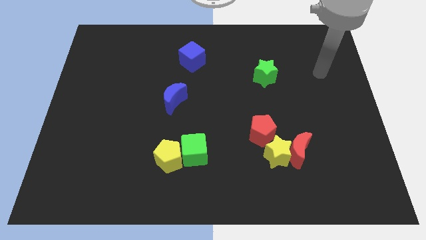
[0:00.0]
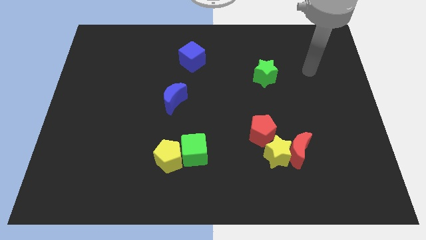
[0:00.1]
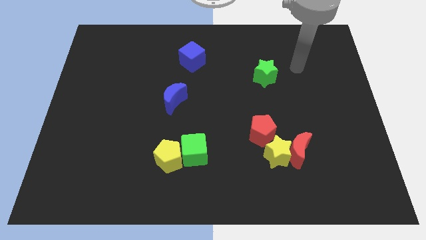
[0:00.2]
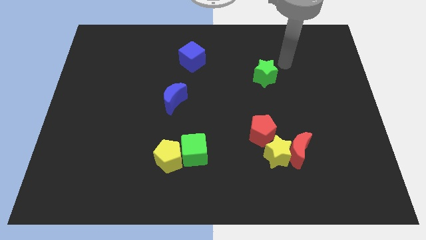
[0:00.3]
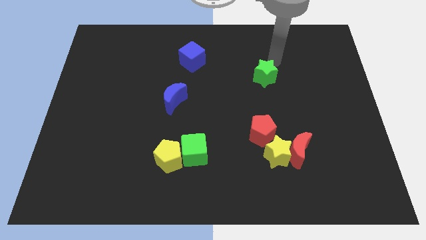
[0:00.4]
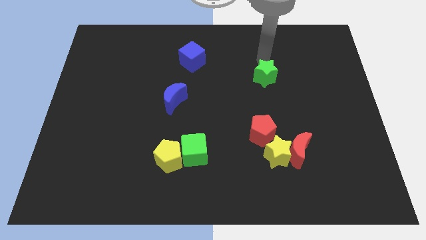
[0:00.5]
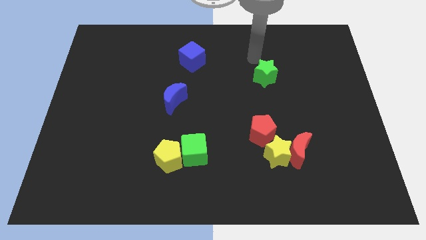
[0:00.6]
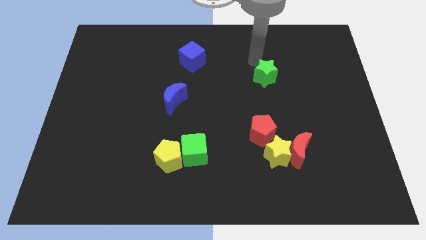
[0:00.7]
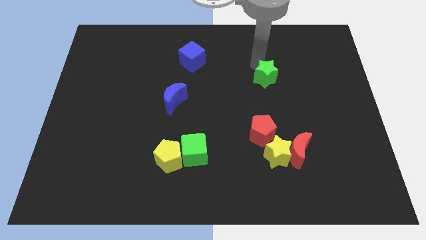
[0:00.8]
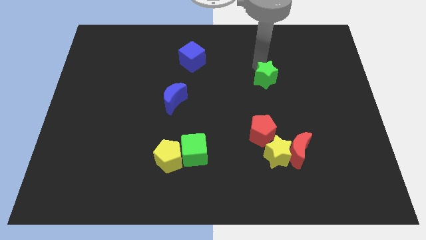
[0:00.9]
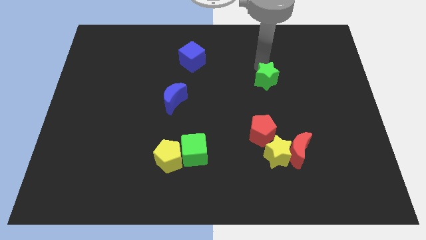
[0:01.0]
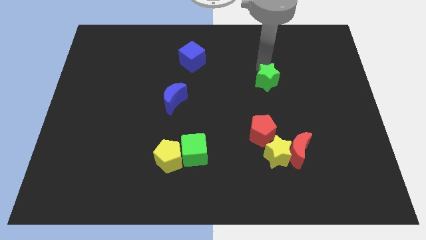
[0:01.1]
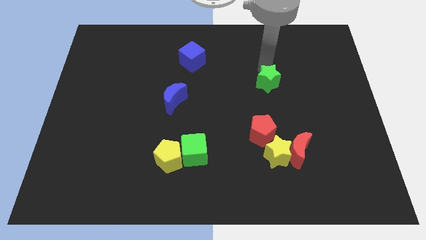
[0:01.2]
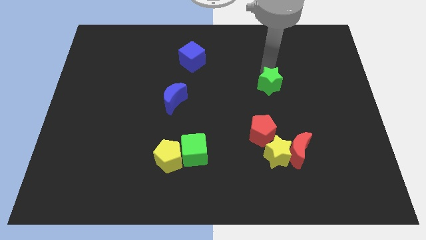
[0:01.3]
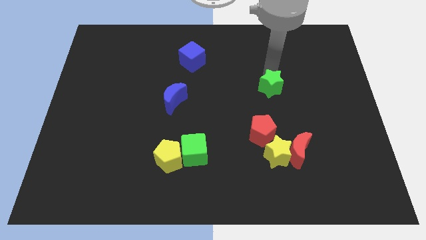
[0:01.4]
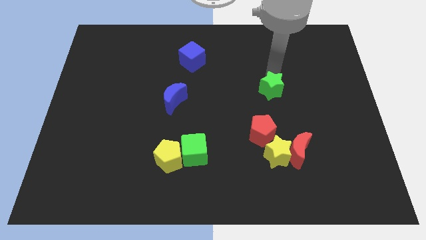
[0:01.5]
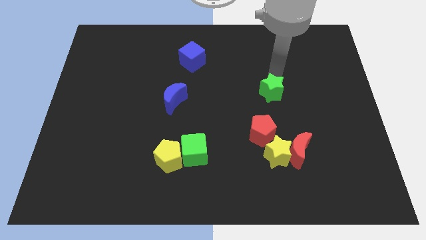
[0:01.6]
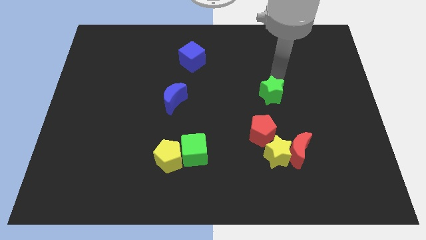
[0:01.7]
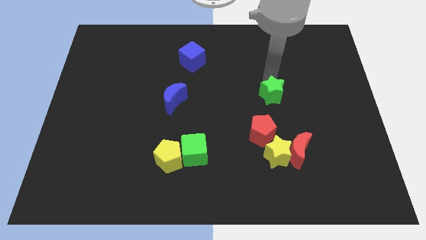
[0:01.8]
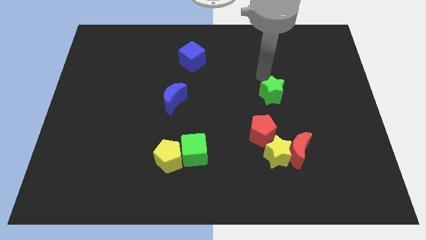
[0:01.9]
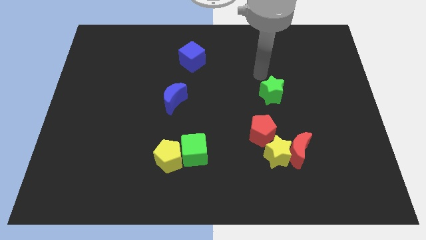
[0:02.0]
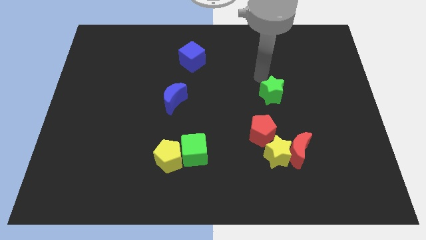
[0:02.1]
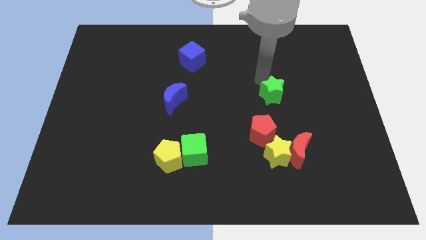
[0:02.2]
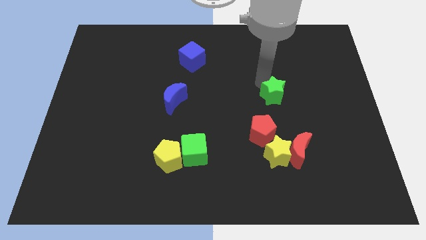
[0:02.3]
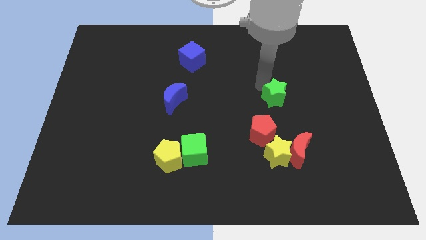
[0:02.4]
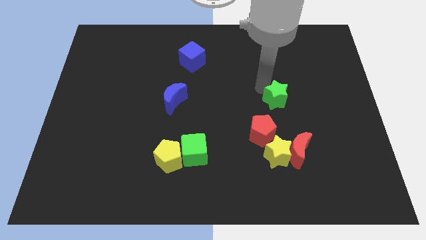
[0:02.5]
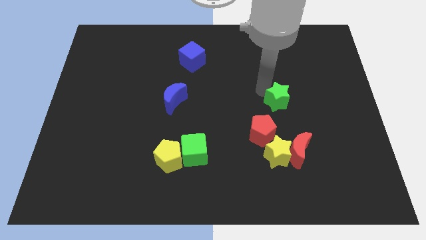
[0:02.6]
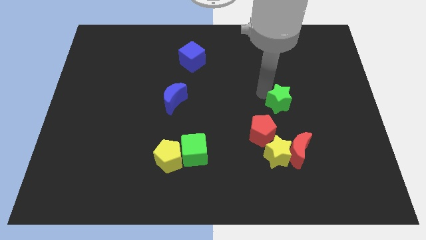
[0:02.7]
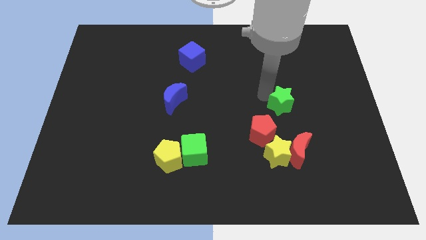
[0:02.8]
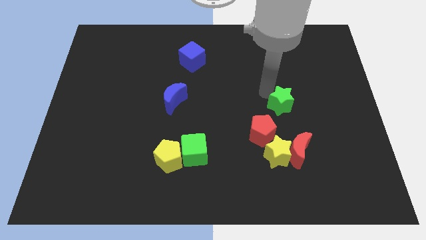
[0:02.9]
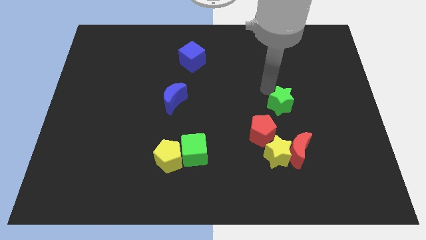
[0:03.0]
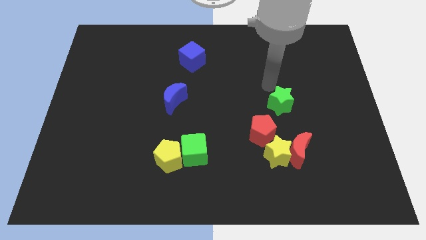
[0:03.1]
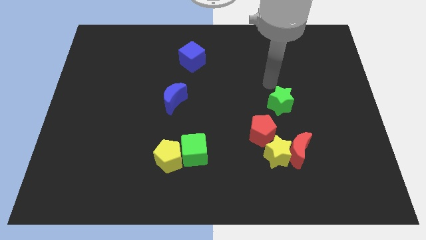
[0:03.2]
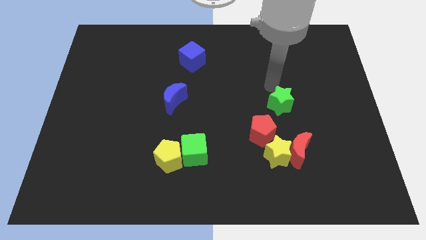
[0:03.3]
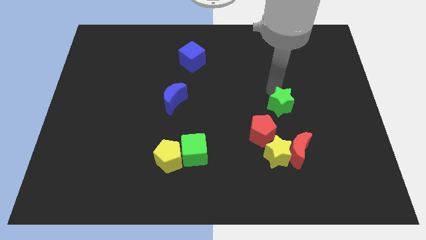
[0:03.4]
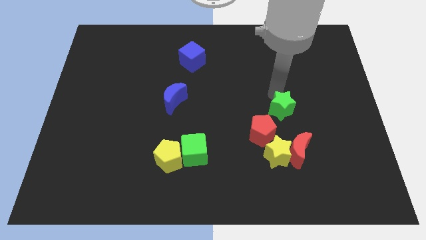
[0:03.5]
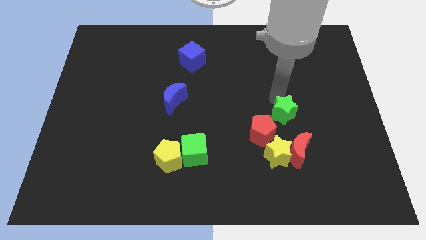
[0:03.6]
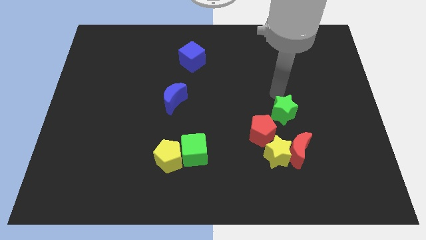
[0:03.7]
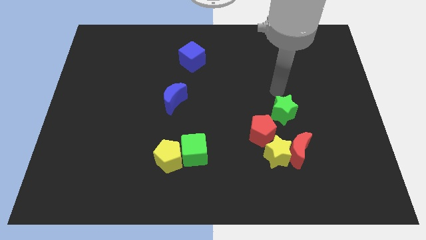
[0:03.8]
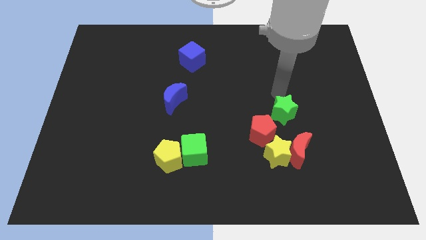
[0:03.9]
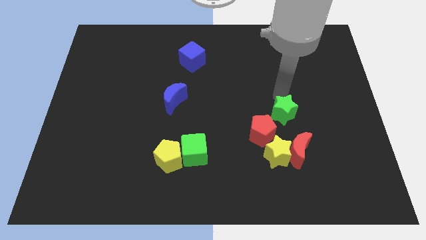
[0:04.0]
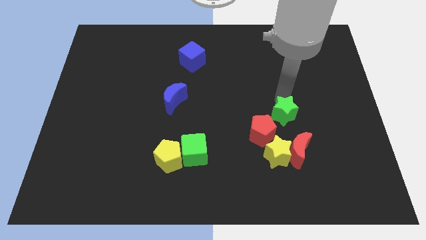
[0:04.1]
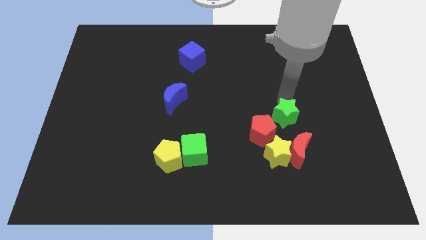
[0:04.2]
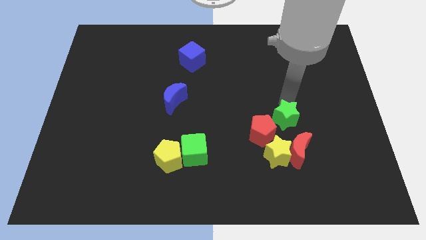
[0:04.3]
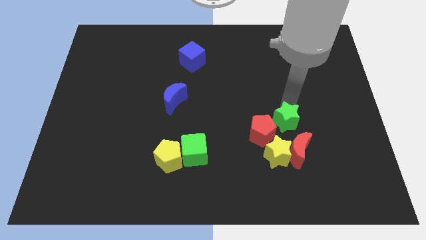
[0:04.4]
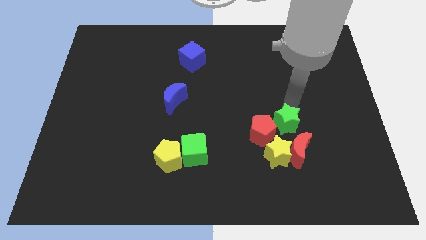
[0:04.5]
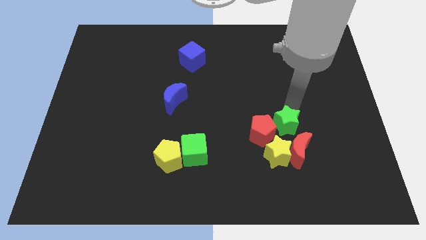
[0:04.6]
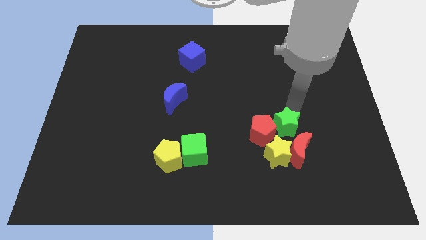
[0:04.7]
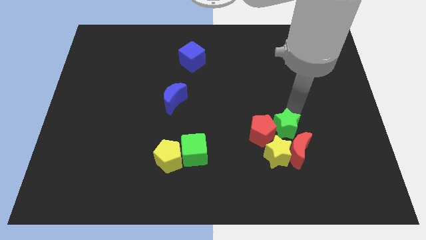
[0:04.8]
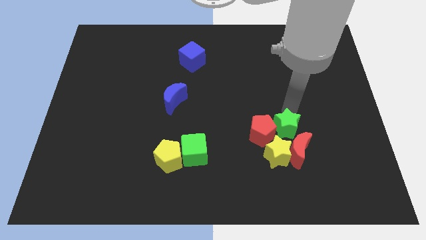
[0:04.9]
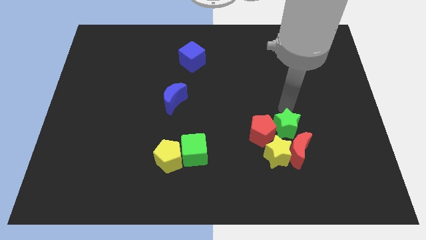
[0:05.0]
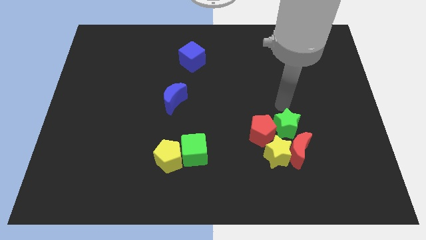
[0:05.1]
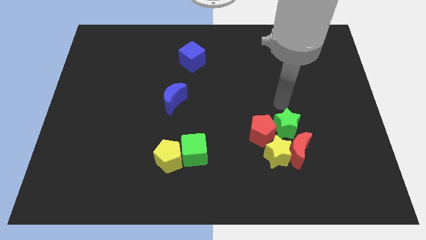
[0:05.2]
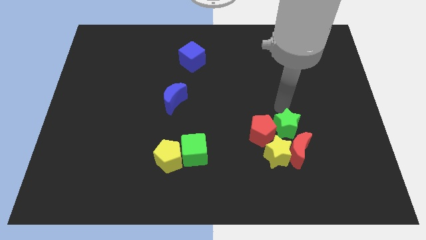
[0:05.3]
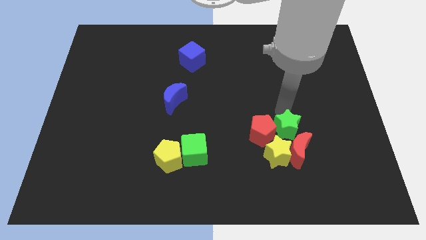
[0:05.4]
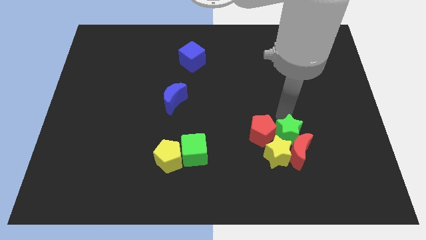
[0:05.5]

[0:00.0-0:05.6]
put the green star close to the red moon

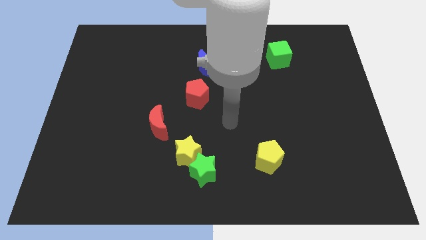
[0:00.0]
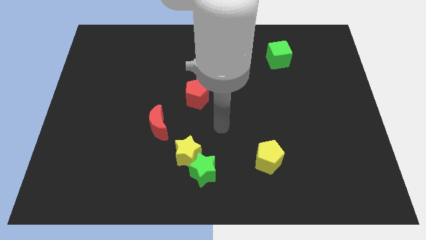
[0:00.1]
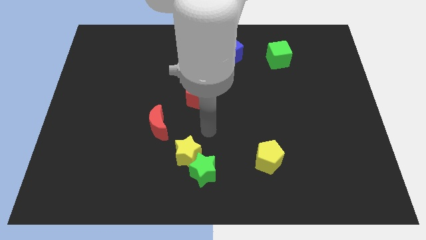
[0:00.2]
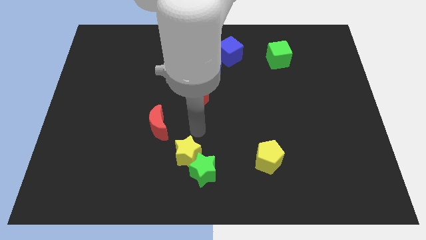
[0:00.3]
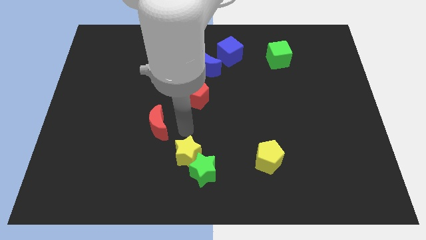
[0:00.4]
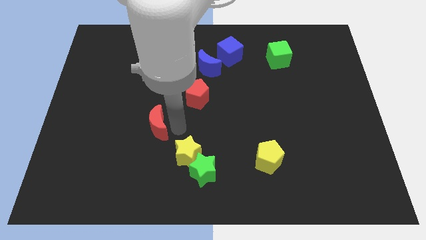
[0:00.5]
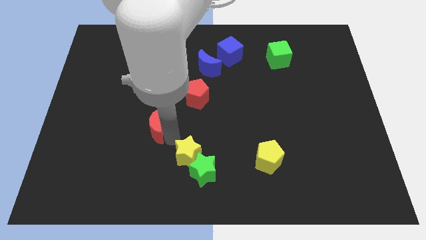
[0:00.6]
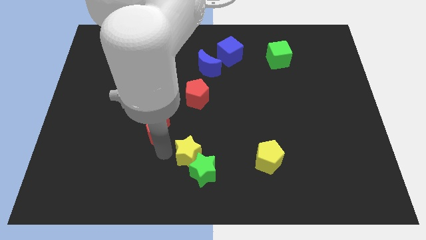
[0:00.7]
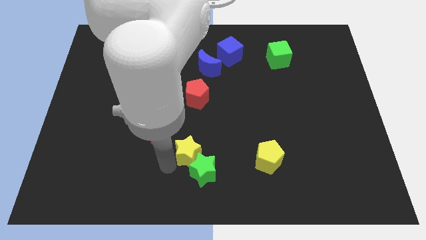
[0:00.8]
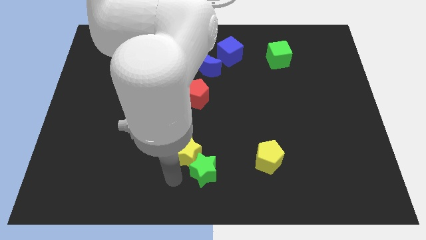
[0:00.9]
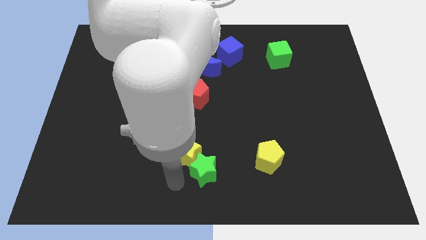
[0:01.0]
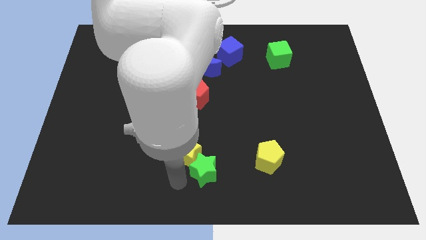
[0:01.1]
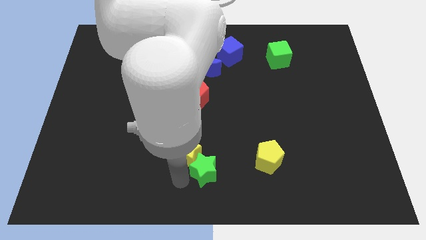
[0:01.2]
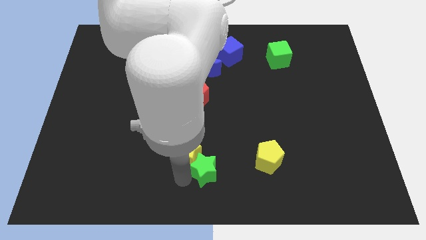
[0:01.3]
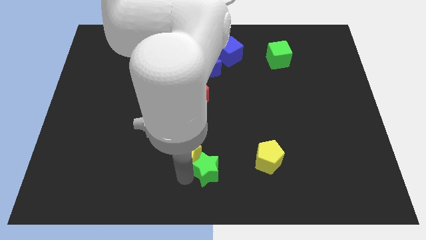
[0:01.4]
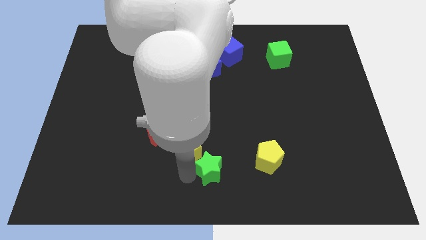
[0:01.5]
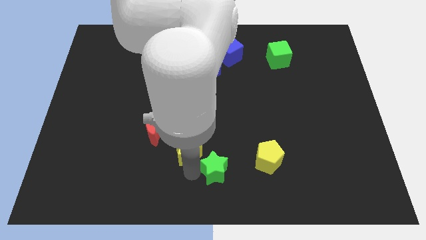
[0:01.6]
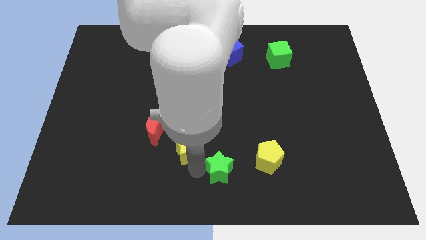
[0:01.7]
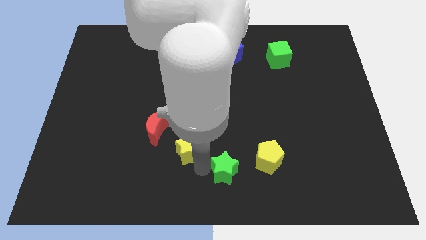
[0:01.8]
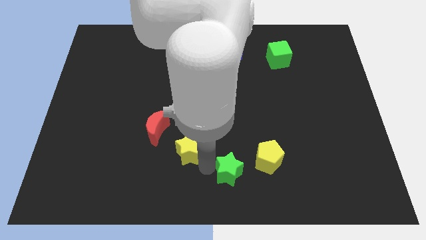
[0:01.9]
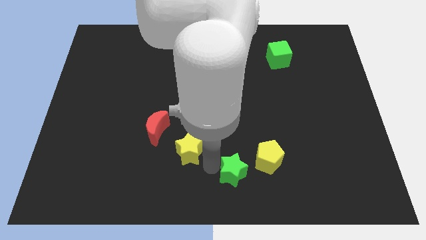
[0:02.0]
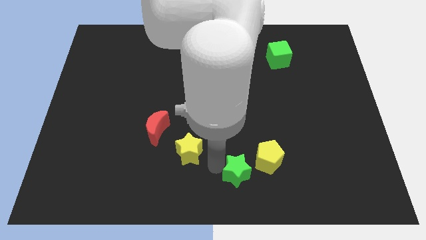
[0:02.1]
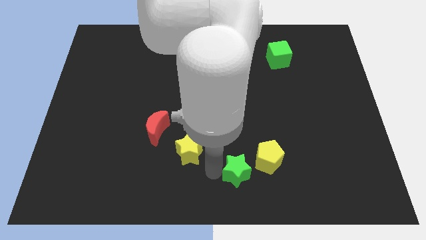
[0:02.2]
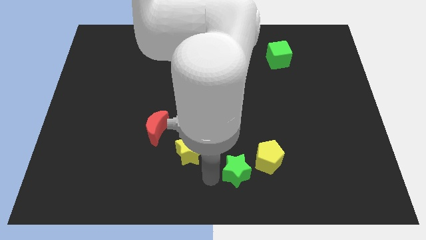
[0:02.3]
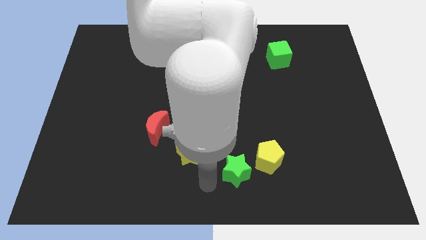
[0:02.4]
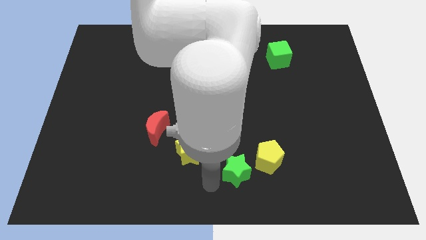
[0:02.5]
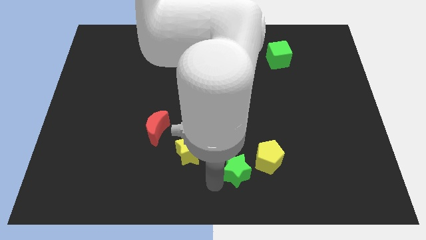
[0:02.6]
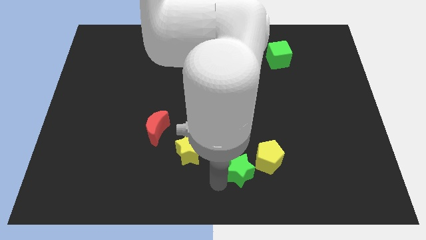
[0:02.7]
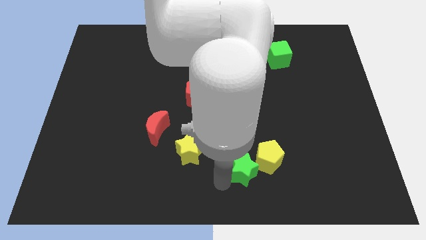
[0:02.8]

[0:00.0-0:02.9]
slide the green star next to the yellow pentagon
